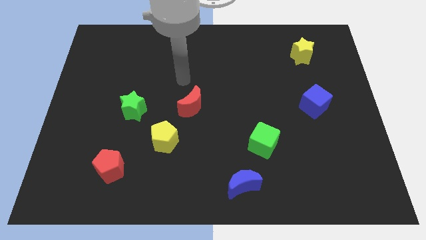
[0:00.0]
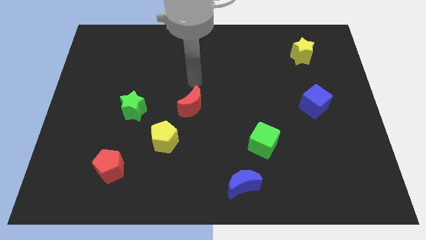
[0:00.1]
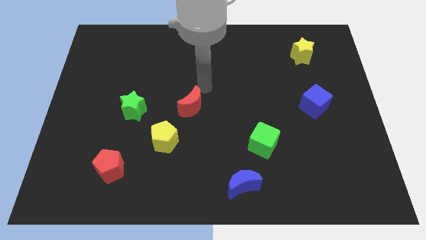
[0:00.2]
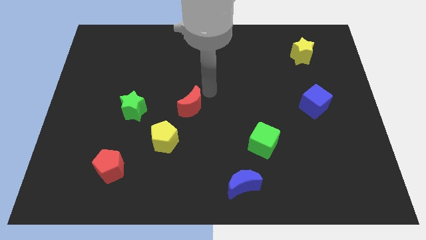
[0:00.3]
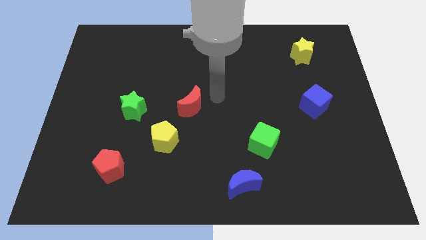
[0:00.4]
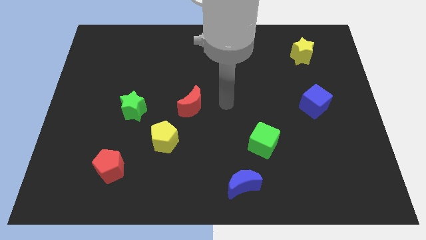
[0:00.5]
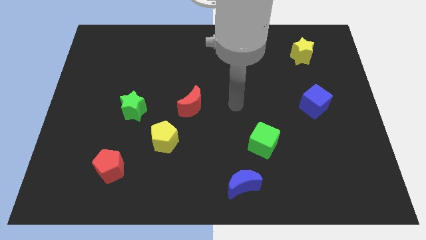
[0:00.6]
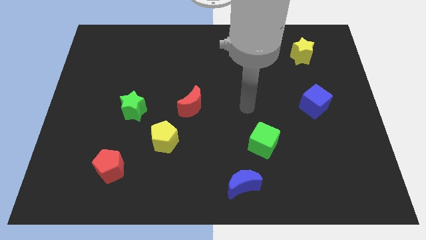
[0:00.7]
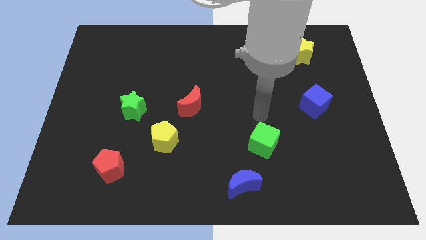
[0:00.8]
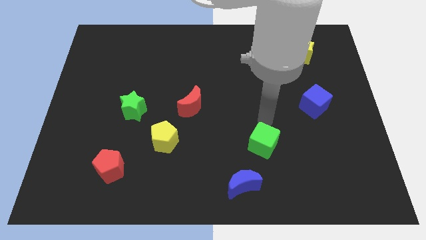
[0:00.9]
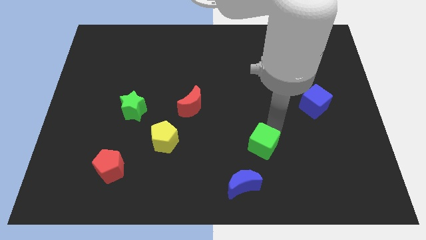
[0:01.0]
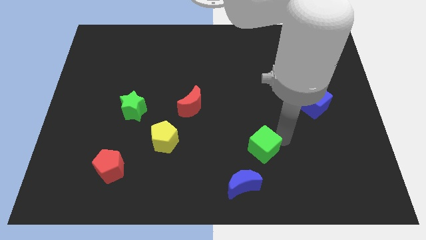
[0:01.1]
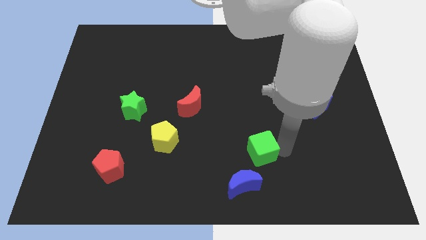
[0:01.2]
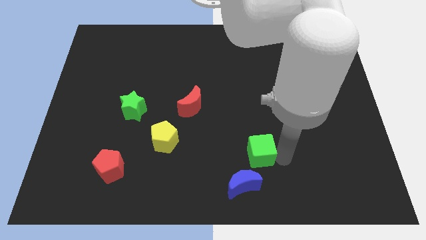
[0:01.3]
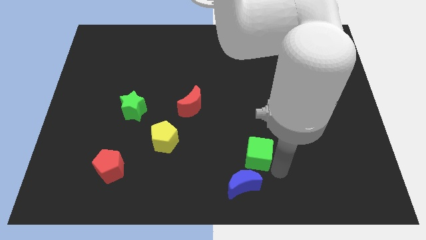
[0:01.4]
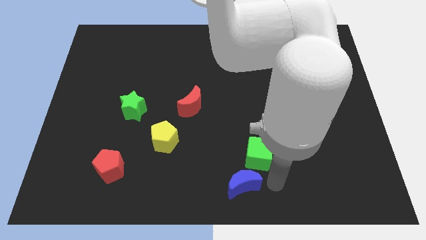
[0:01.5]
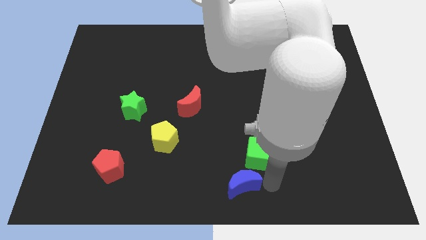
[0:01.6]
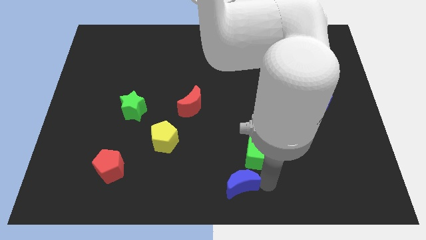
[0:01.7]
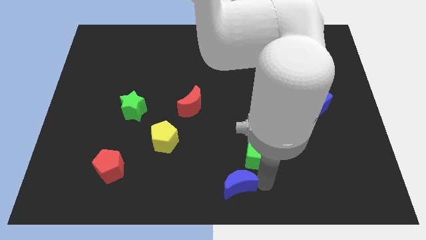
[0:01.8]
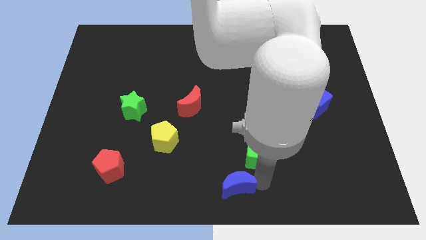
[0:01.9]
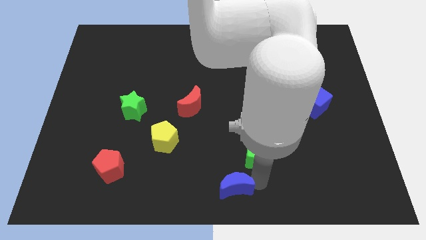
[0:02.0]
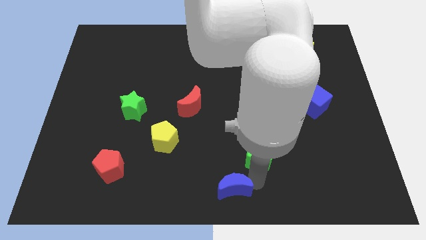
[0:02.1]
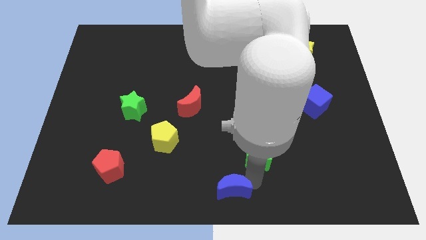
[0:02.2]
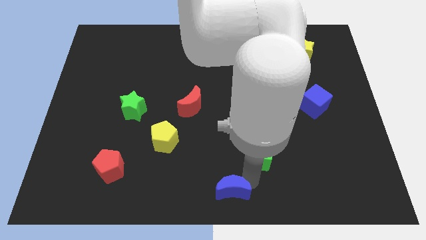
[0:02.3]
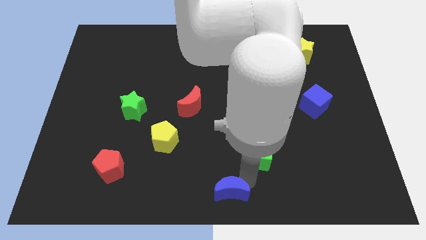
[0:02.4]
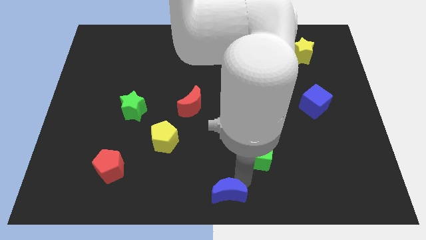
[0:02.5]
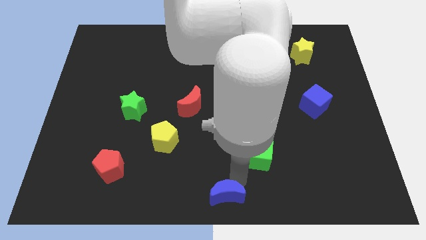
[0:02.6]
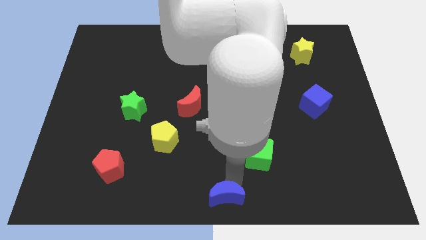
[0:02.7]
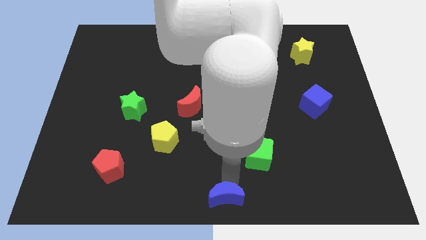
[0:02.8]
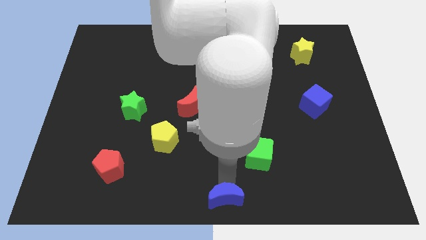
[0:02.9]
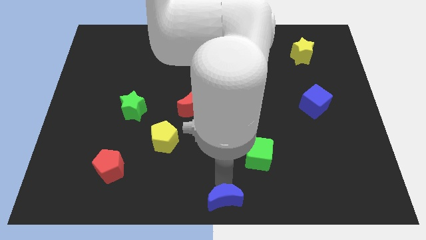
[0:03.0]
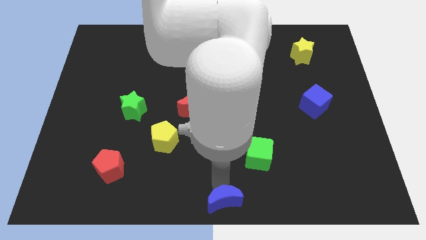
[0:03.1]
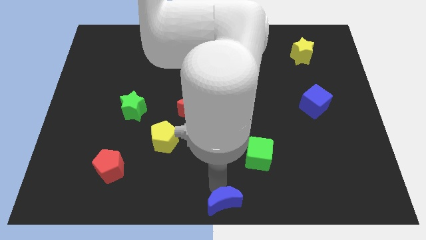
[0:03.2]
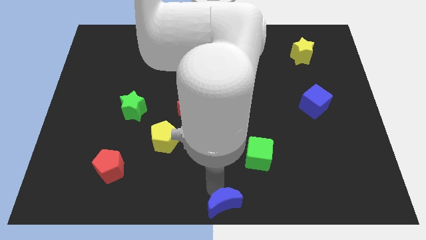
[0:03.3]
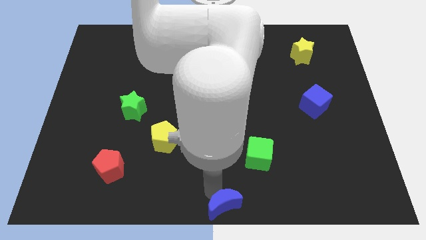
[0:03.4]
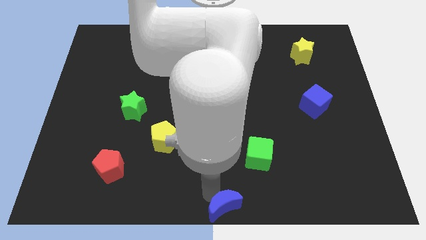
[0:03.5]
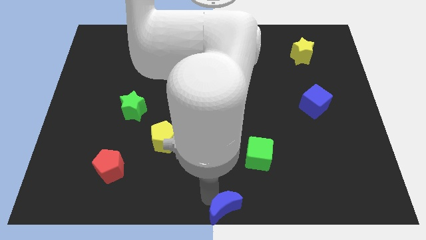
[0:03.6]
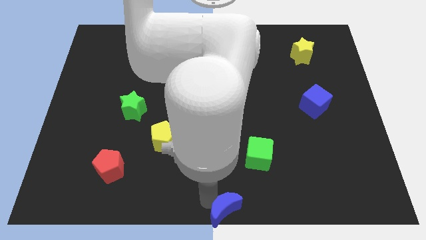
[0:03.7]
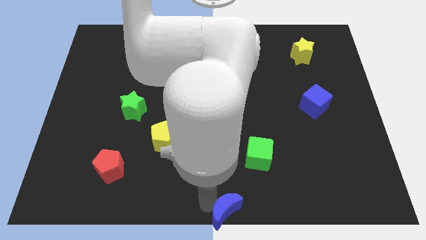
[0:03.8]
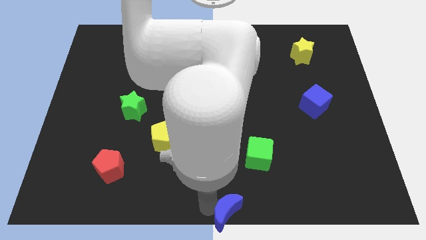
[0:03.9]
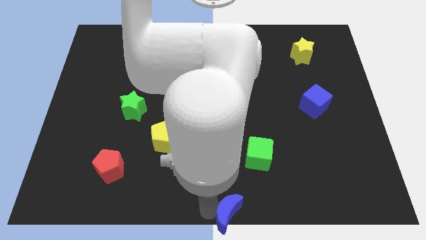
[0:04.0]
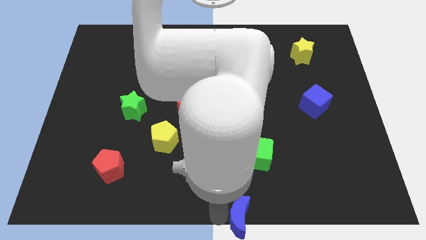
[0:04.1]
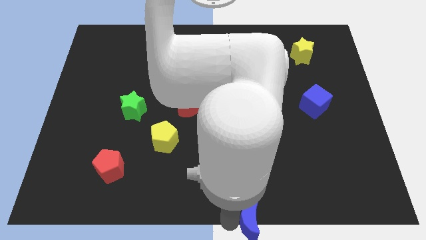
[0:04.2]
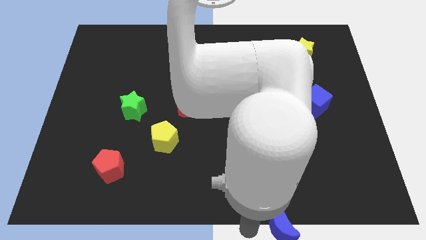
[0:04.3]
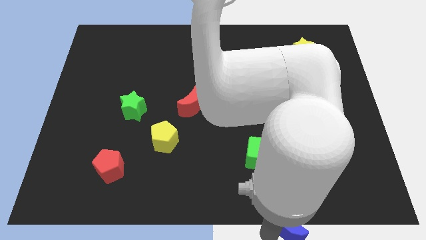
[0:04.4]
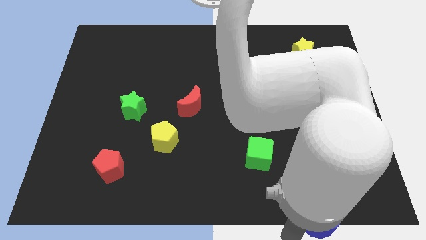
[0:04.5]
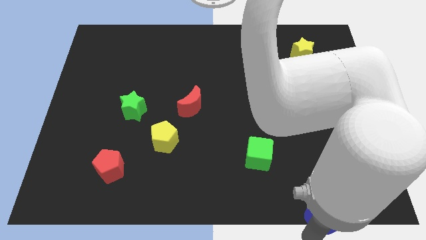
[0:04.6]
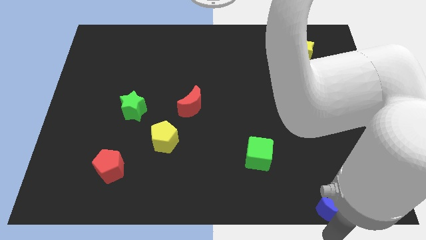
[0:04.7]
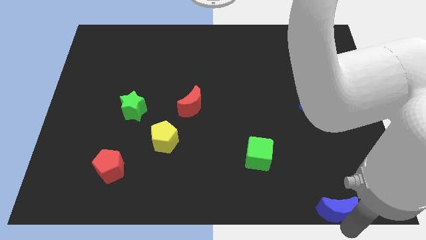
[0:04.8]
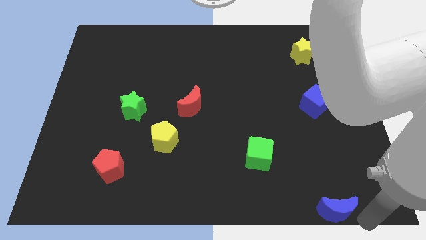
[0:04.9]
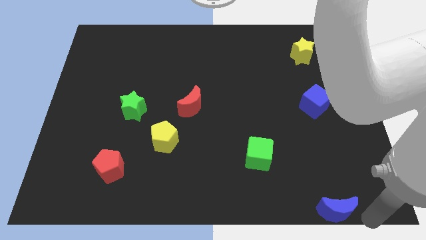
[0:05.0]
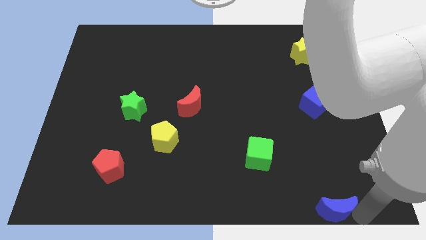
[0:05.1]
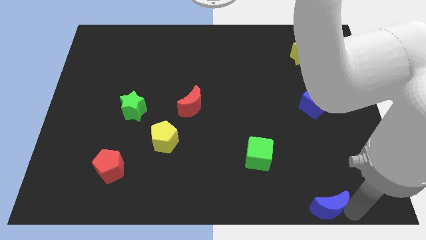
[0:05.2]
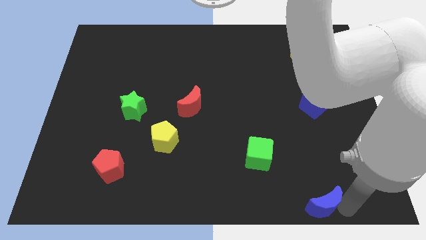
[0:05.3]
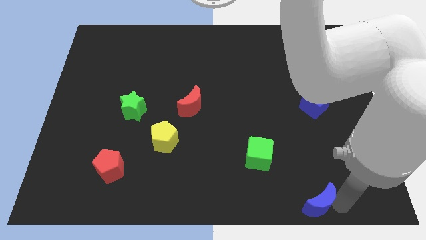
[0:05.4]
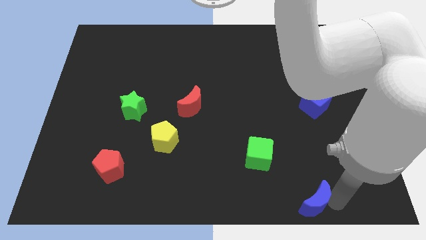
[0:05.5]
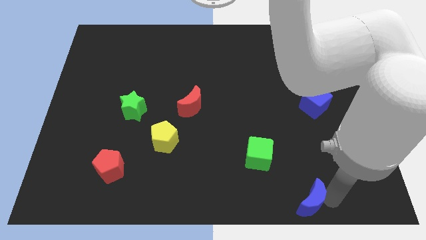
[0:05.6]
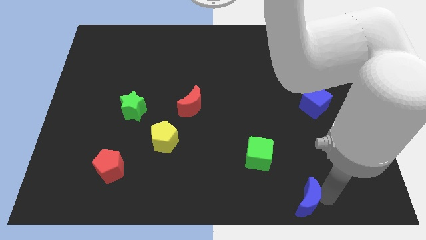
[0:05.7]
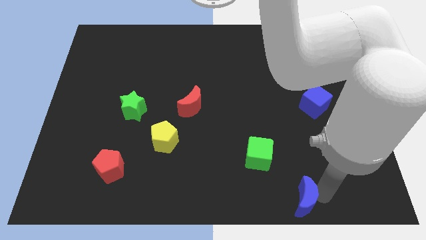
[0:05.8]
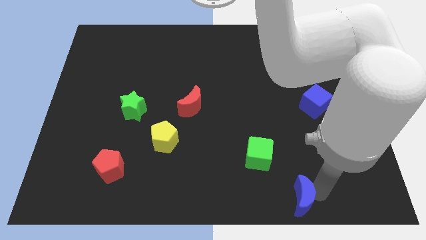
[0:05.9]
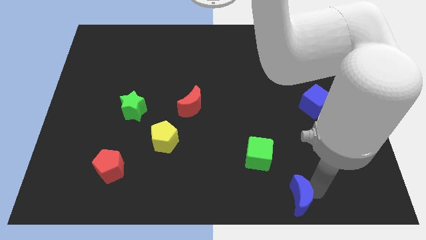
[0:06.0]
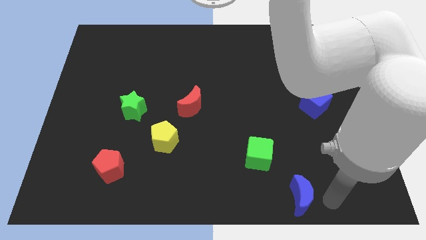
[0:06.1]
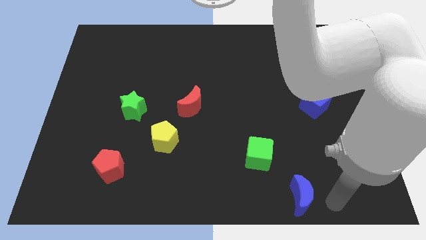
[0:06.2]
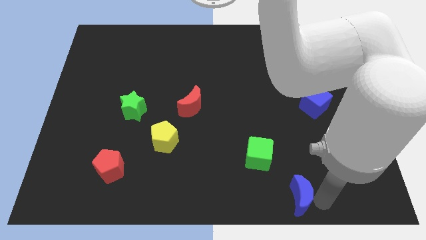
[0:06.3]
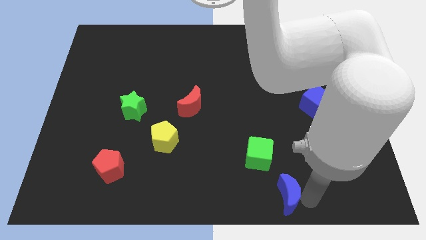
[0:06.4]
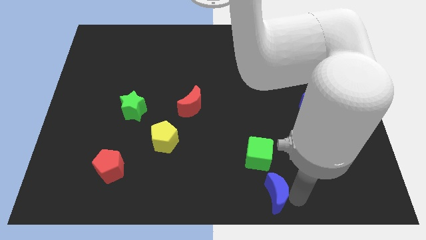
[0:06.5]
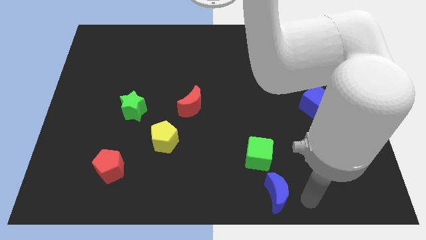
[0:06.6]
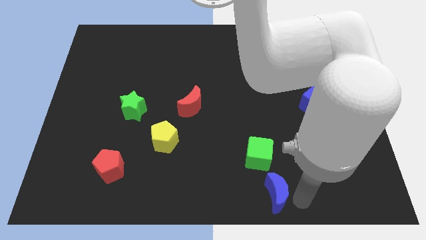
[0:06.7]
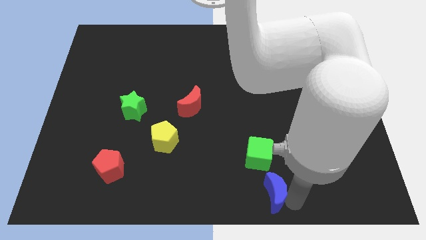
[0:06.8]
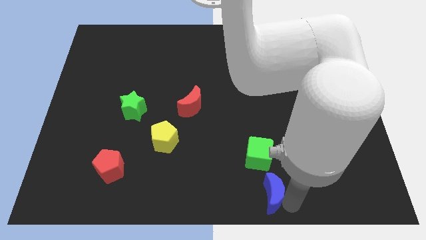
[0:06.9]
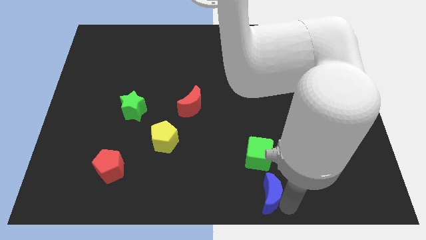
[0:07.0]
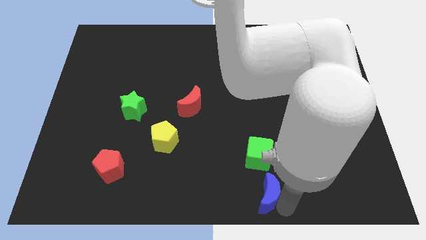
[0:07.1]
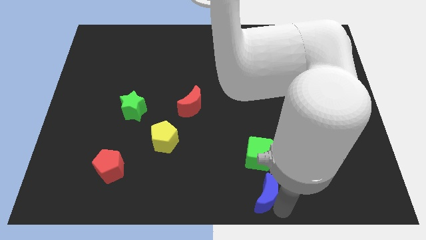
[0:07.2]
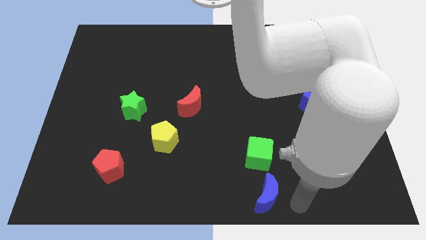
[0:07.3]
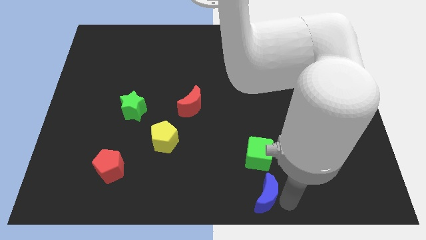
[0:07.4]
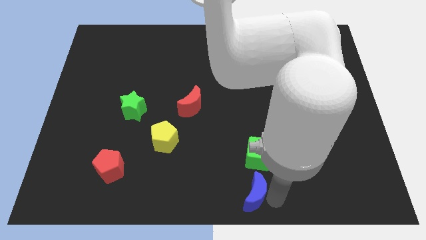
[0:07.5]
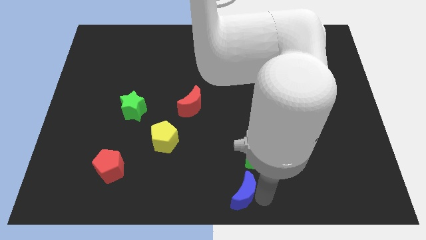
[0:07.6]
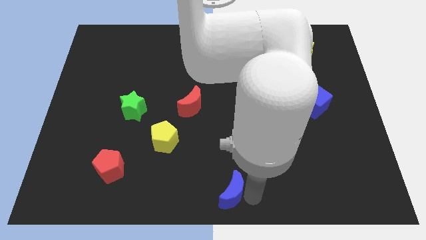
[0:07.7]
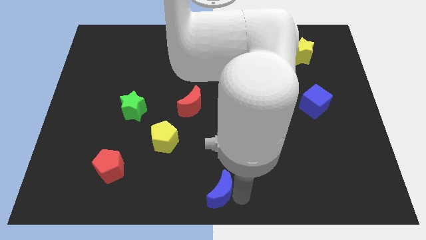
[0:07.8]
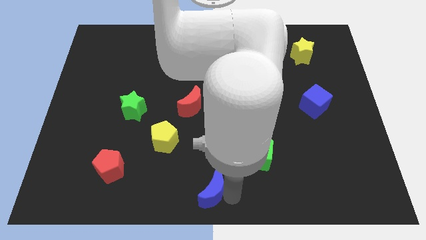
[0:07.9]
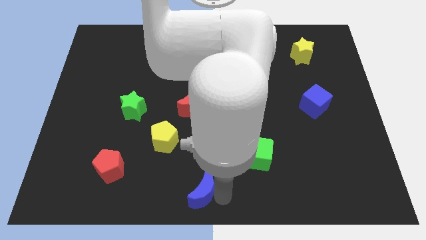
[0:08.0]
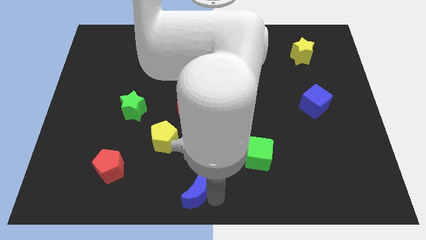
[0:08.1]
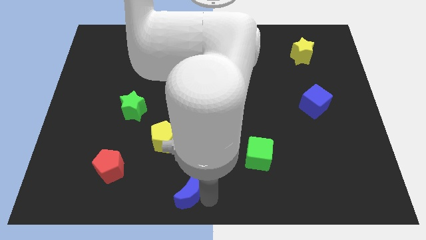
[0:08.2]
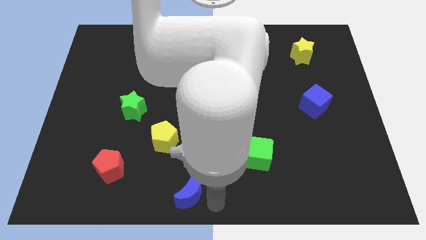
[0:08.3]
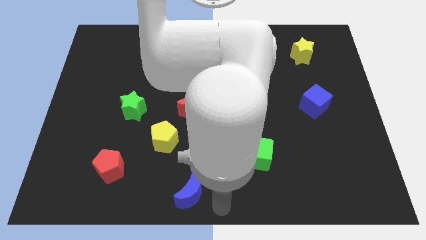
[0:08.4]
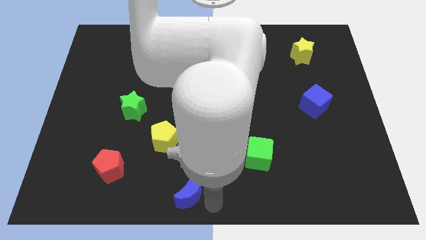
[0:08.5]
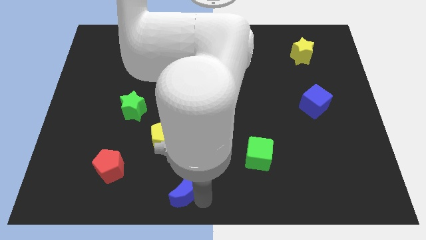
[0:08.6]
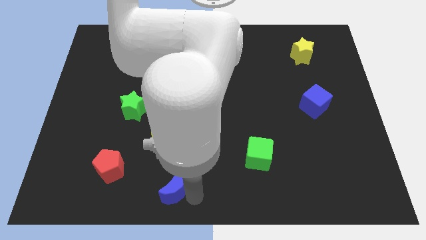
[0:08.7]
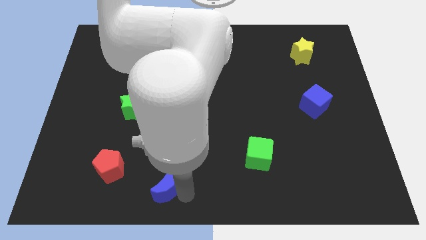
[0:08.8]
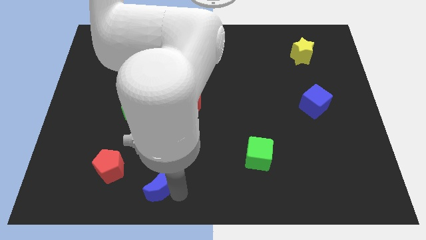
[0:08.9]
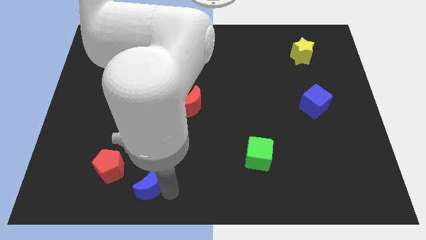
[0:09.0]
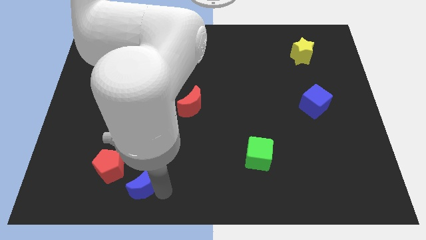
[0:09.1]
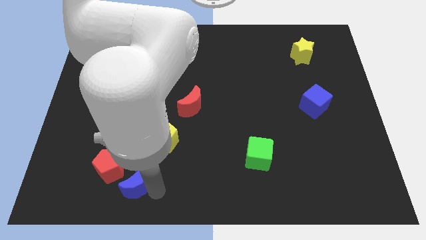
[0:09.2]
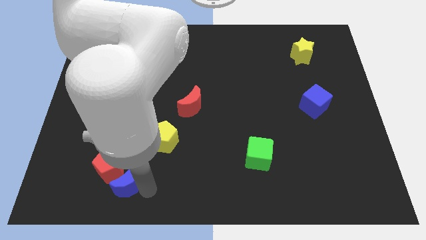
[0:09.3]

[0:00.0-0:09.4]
push the blue moon to the red pentagon
